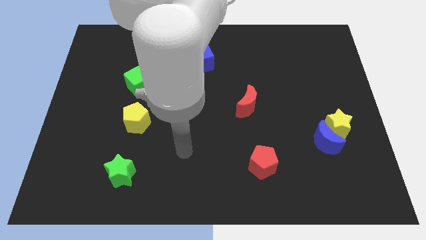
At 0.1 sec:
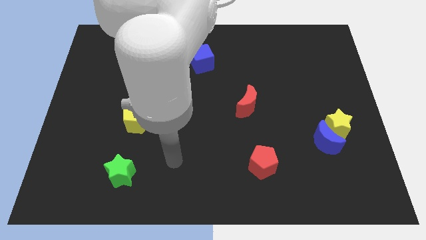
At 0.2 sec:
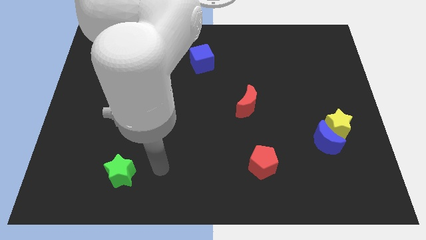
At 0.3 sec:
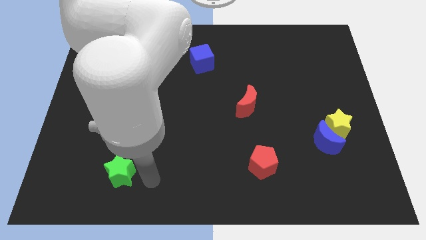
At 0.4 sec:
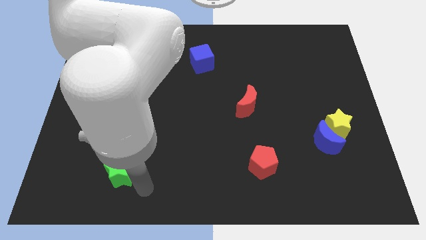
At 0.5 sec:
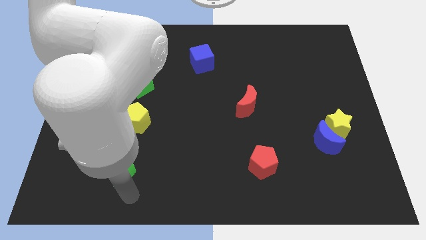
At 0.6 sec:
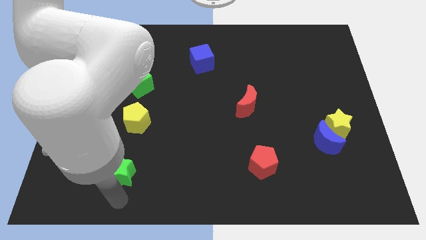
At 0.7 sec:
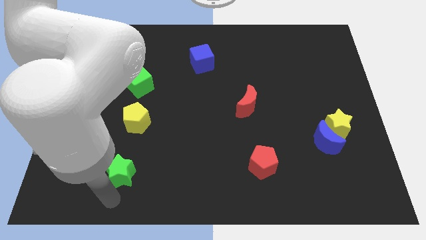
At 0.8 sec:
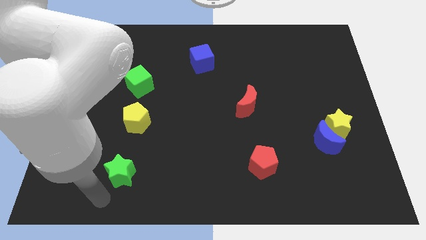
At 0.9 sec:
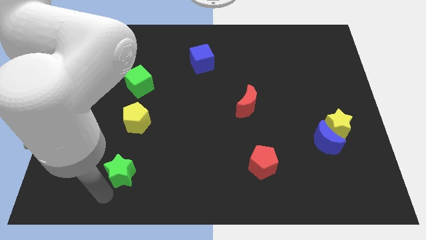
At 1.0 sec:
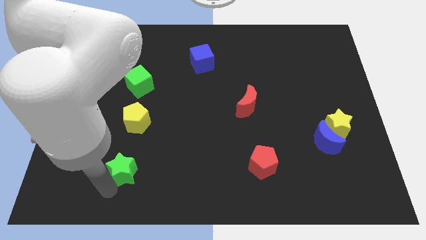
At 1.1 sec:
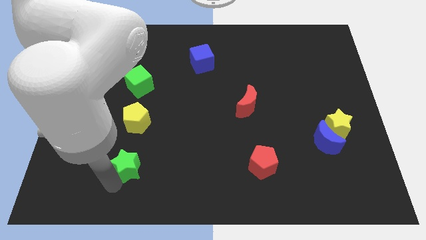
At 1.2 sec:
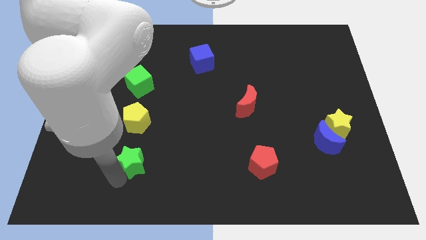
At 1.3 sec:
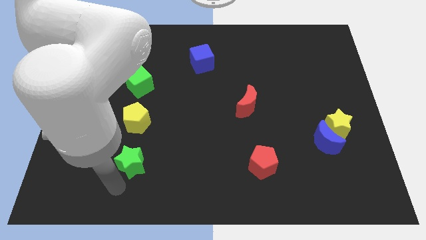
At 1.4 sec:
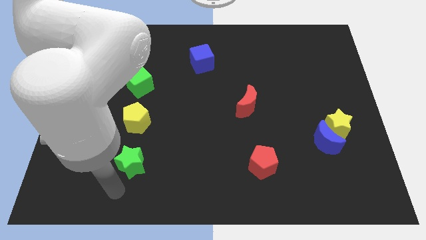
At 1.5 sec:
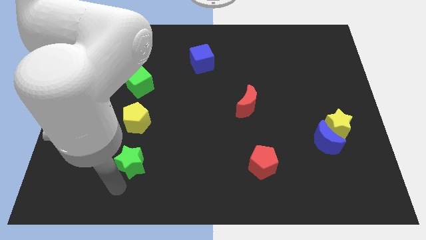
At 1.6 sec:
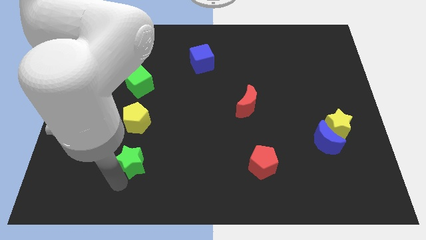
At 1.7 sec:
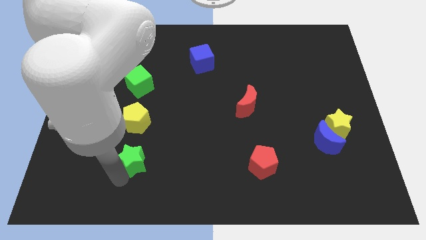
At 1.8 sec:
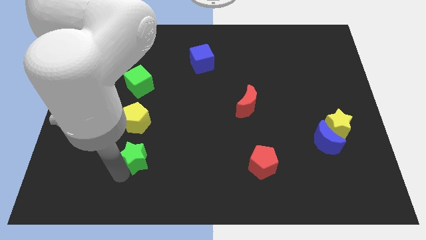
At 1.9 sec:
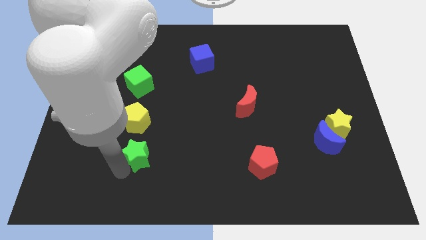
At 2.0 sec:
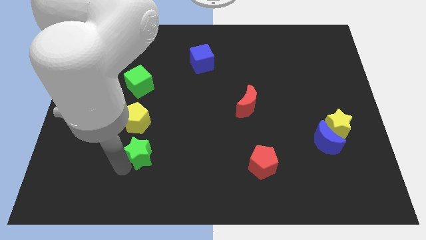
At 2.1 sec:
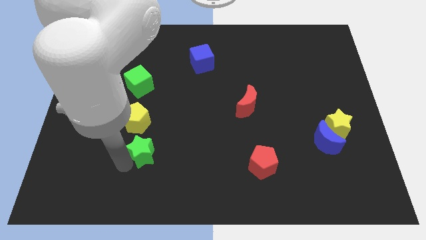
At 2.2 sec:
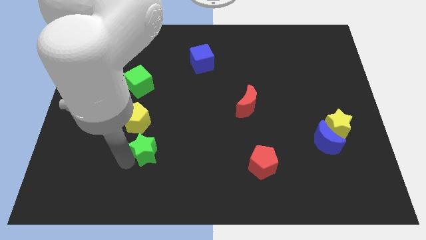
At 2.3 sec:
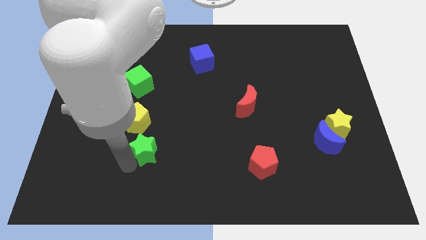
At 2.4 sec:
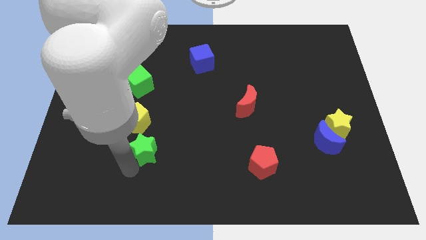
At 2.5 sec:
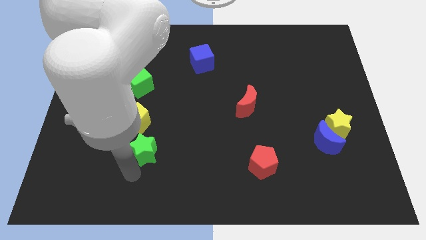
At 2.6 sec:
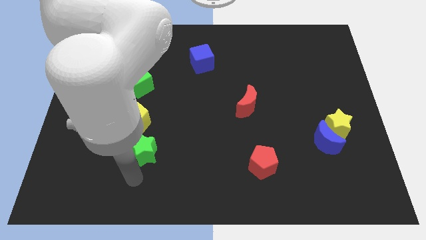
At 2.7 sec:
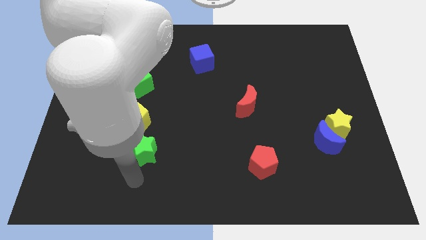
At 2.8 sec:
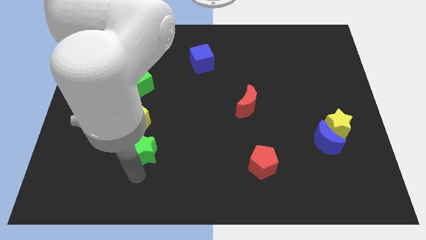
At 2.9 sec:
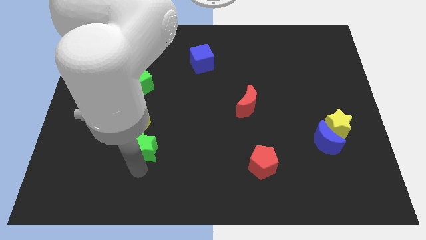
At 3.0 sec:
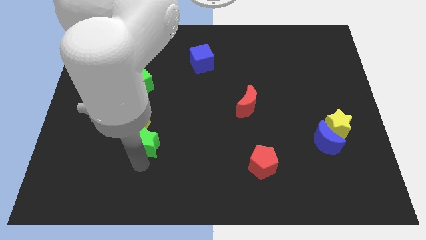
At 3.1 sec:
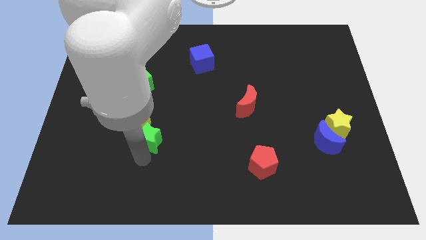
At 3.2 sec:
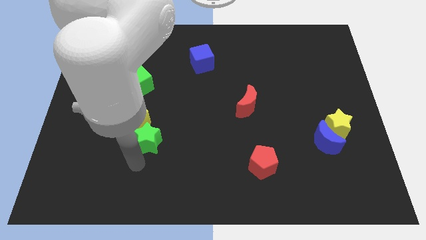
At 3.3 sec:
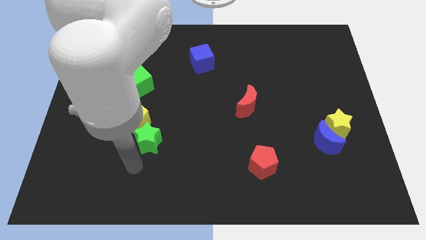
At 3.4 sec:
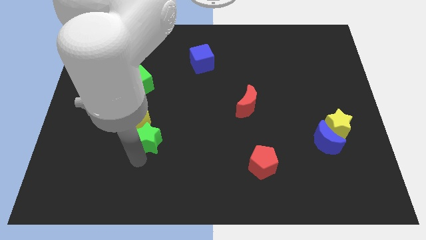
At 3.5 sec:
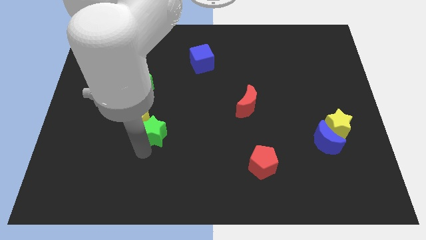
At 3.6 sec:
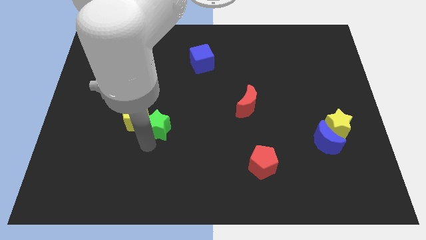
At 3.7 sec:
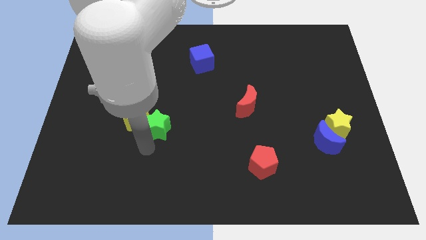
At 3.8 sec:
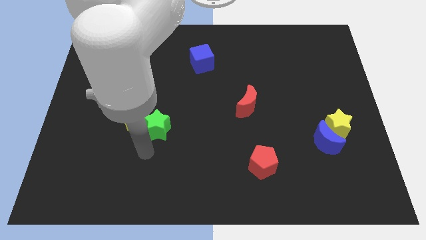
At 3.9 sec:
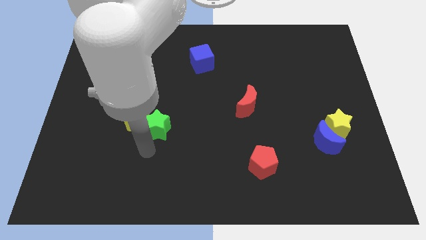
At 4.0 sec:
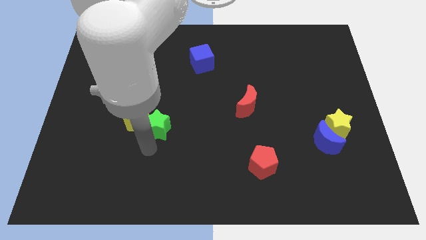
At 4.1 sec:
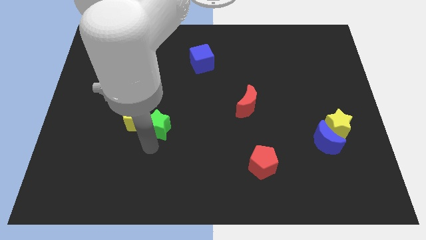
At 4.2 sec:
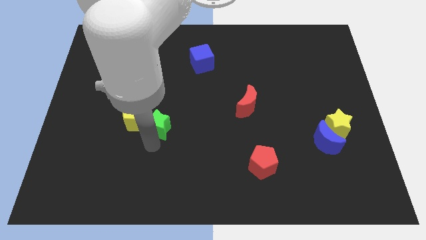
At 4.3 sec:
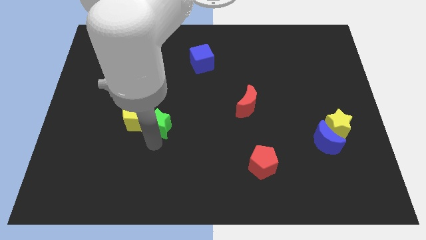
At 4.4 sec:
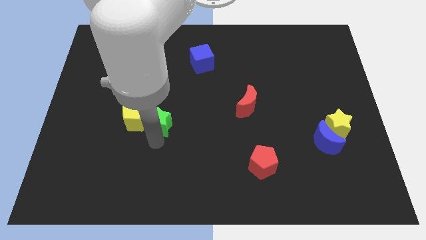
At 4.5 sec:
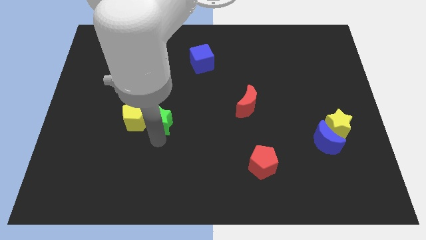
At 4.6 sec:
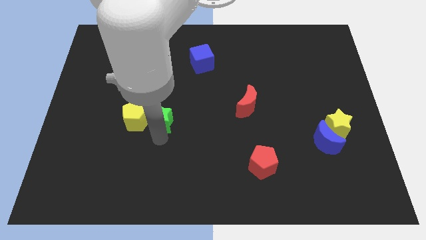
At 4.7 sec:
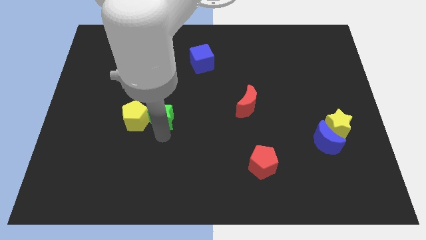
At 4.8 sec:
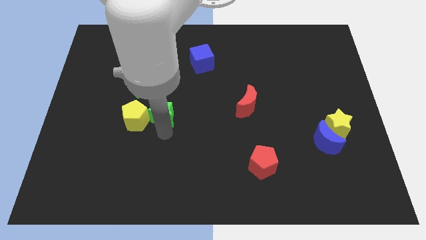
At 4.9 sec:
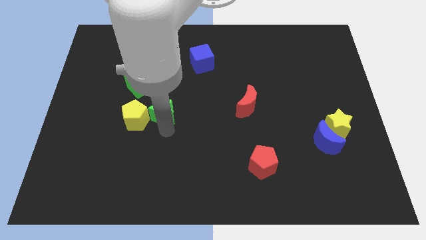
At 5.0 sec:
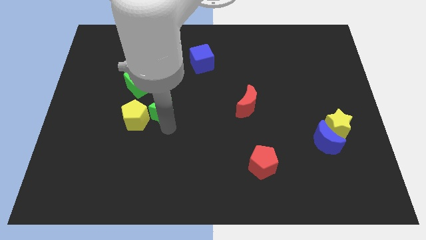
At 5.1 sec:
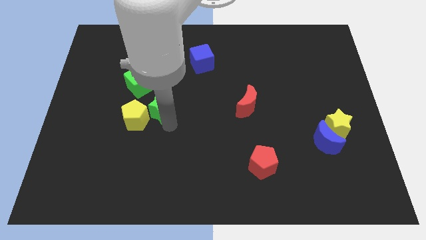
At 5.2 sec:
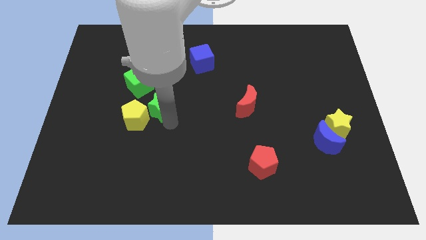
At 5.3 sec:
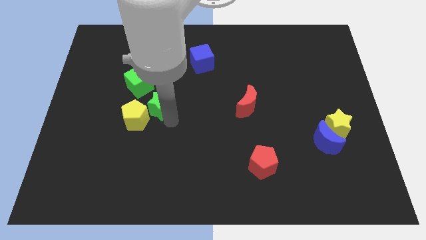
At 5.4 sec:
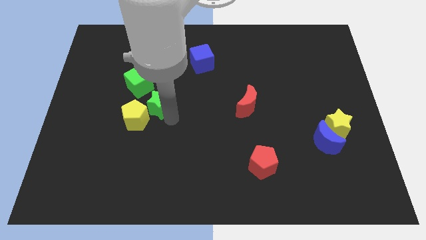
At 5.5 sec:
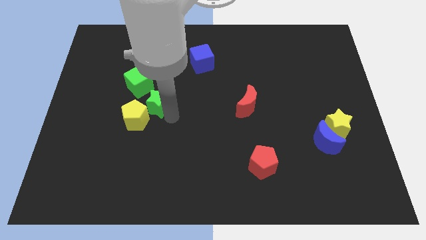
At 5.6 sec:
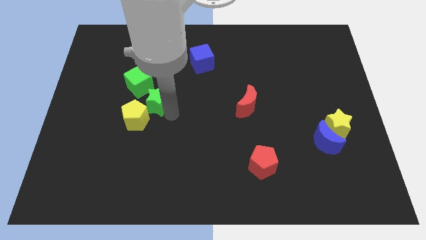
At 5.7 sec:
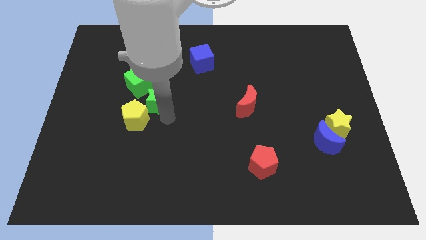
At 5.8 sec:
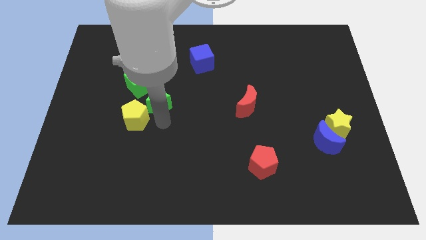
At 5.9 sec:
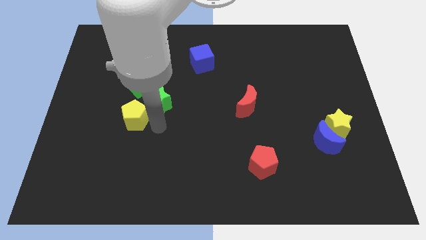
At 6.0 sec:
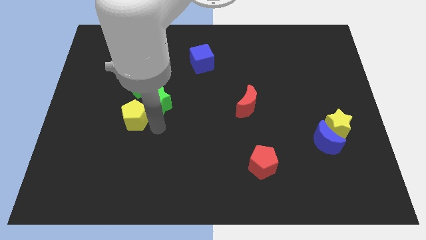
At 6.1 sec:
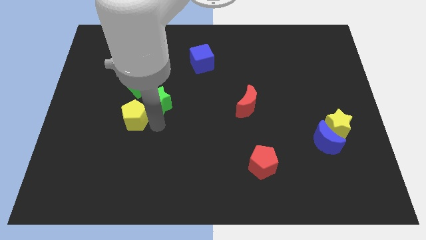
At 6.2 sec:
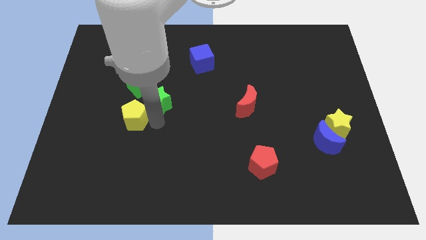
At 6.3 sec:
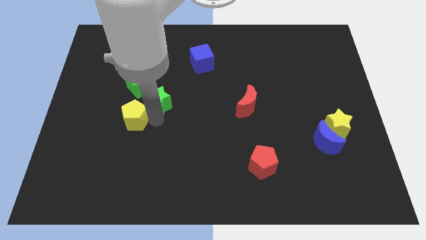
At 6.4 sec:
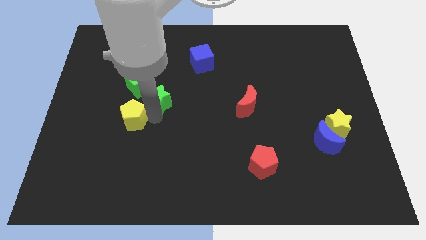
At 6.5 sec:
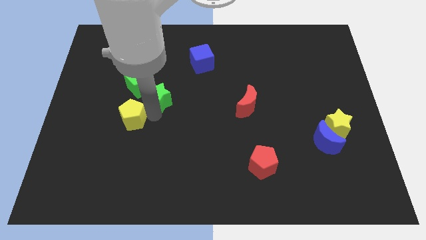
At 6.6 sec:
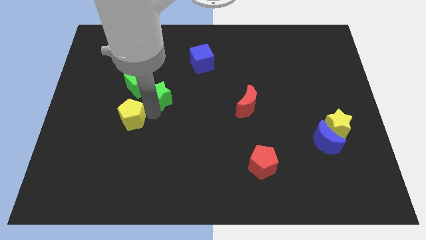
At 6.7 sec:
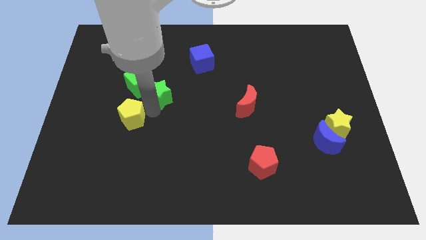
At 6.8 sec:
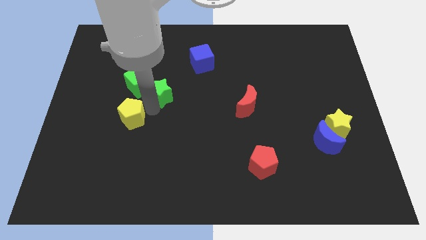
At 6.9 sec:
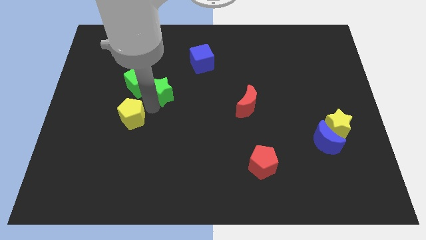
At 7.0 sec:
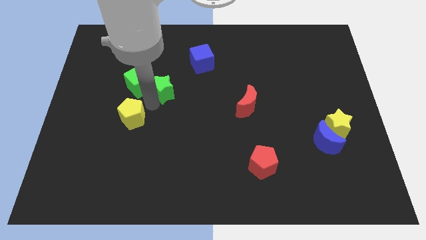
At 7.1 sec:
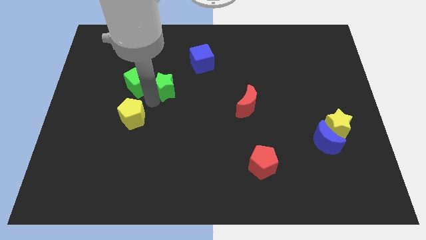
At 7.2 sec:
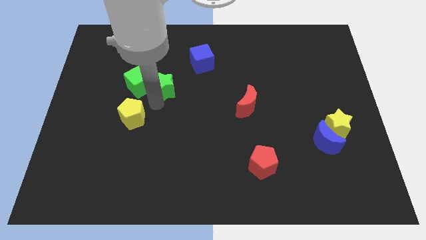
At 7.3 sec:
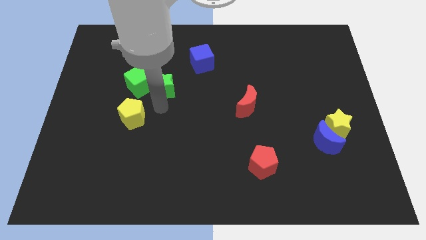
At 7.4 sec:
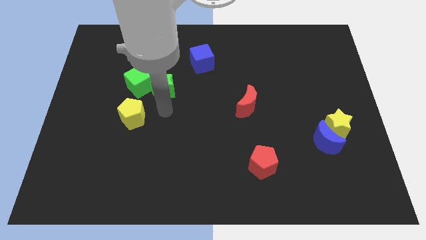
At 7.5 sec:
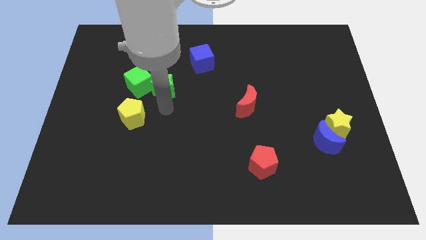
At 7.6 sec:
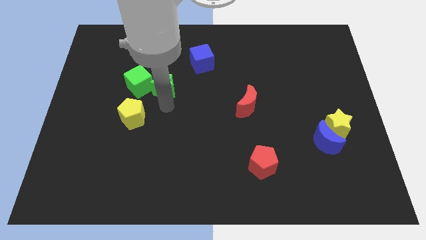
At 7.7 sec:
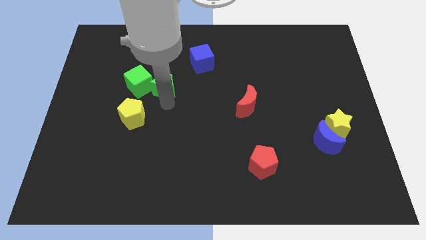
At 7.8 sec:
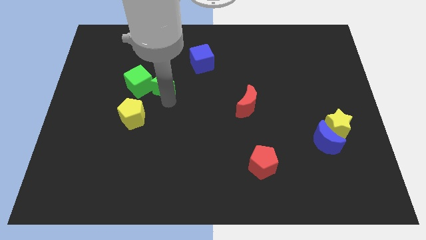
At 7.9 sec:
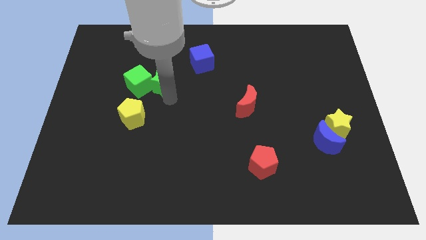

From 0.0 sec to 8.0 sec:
put the green star diagonally up and to the right of the green cube

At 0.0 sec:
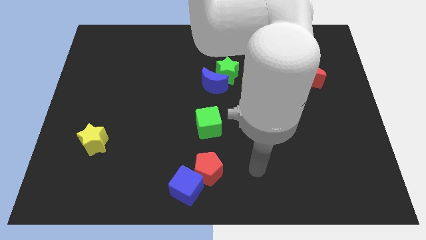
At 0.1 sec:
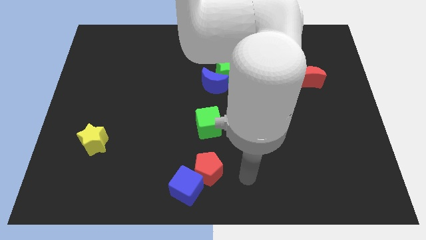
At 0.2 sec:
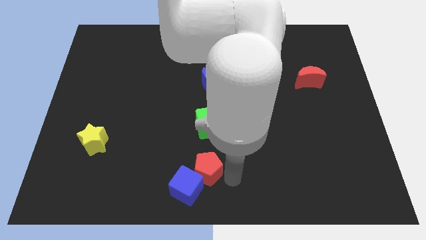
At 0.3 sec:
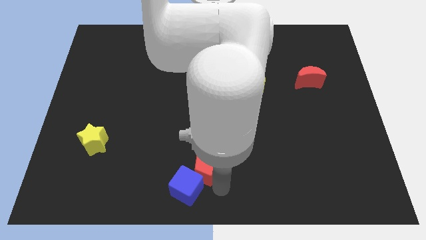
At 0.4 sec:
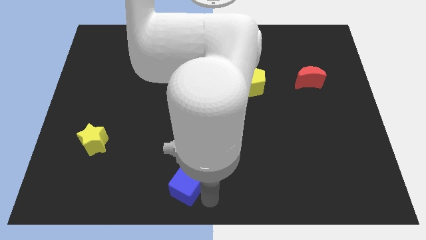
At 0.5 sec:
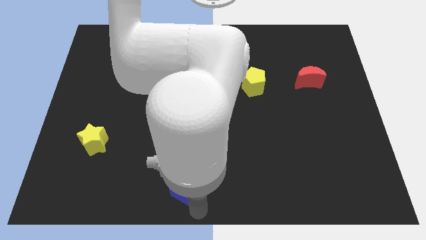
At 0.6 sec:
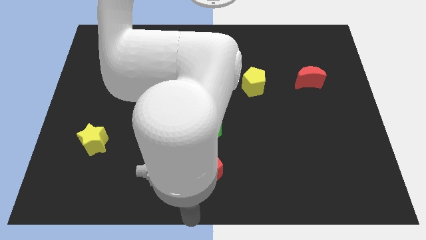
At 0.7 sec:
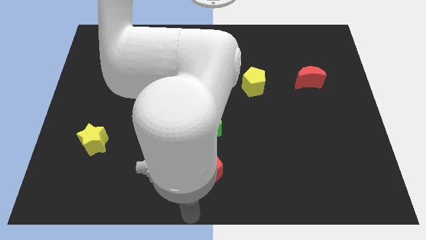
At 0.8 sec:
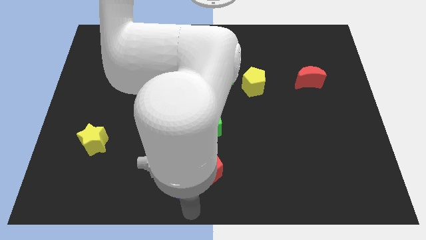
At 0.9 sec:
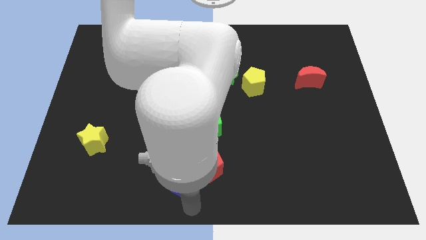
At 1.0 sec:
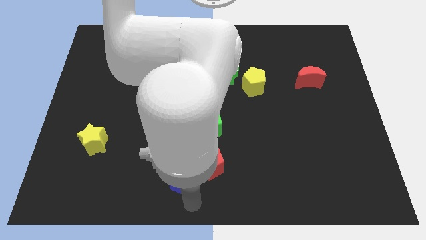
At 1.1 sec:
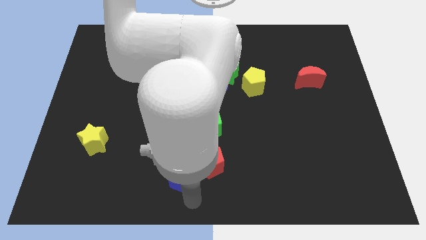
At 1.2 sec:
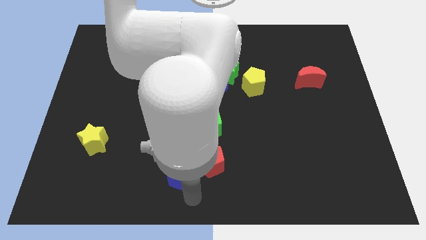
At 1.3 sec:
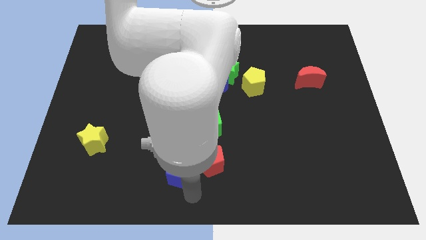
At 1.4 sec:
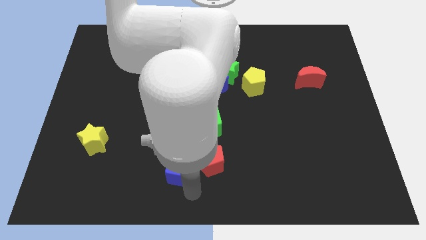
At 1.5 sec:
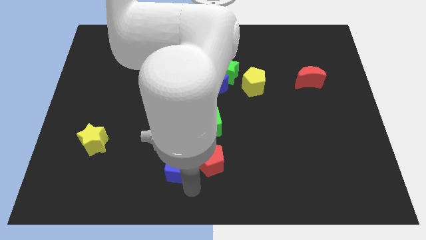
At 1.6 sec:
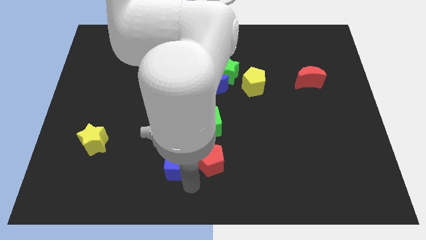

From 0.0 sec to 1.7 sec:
slide the blue cube diagonally down and to the left of the green cube
